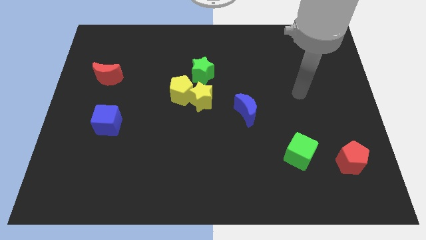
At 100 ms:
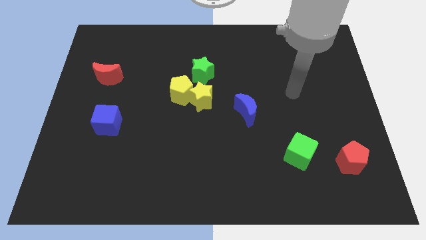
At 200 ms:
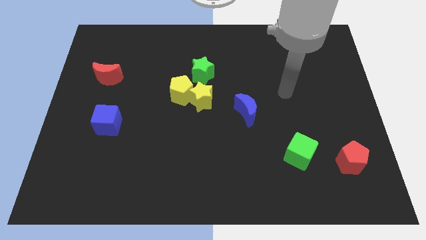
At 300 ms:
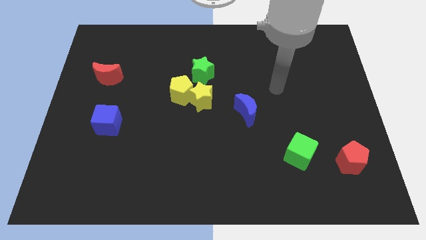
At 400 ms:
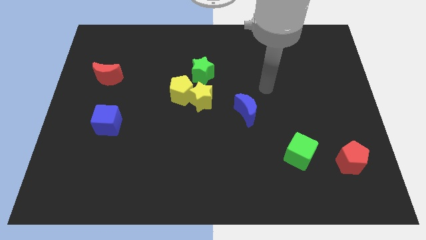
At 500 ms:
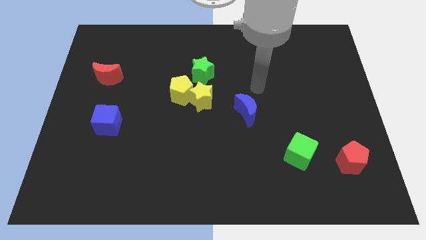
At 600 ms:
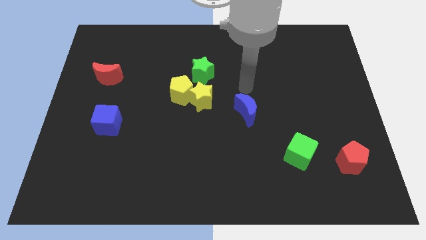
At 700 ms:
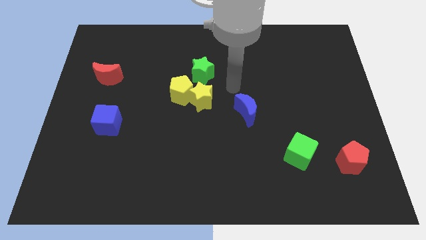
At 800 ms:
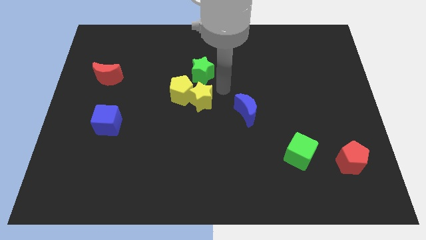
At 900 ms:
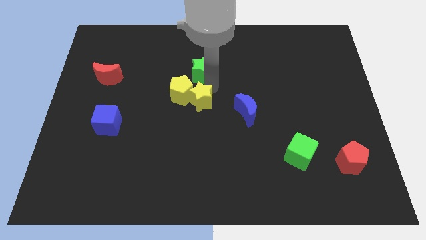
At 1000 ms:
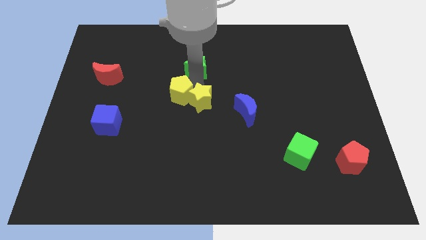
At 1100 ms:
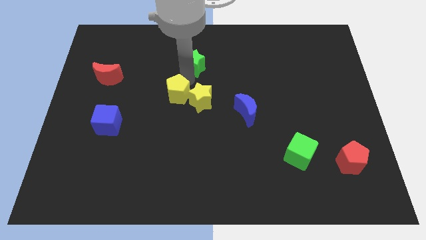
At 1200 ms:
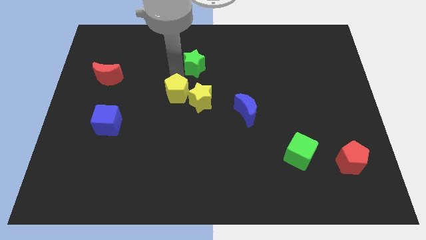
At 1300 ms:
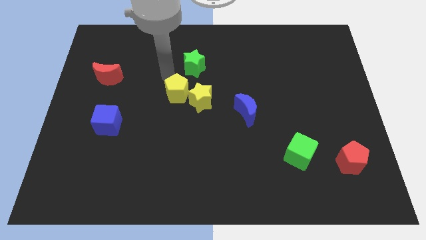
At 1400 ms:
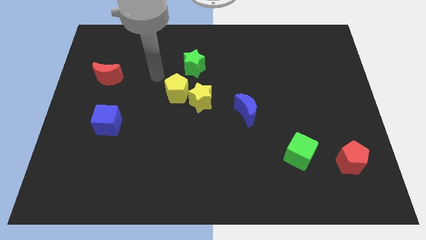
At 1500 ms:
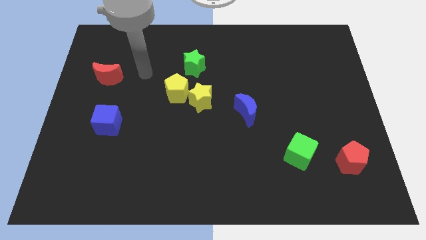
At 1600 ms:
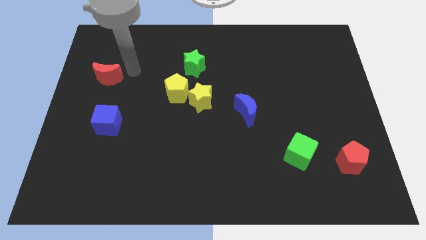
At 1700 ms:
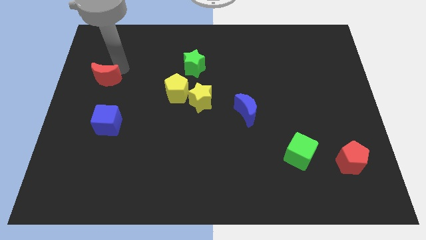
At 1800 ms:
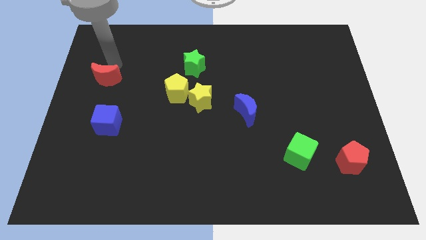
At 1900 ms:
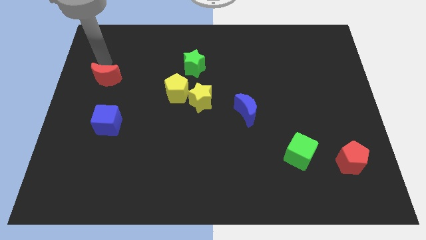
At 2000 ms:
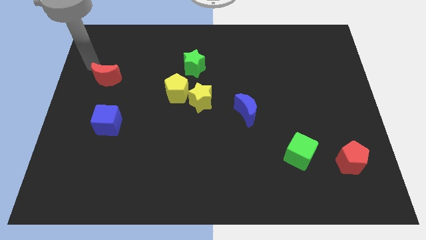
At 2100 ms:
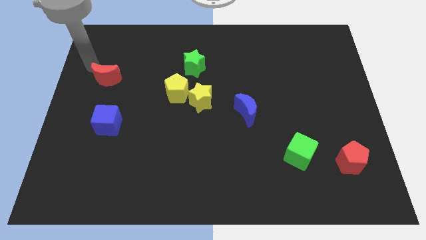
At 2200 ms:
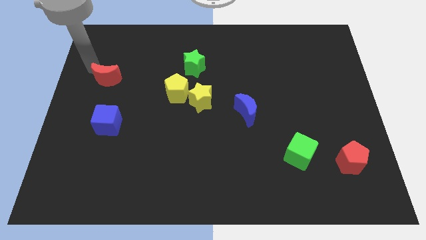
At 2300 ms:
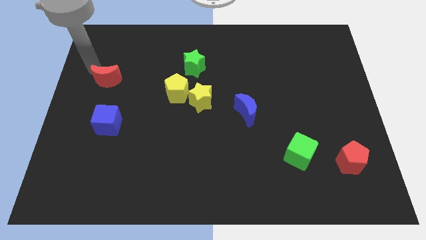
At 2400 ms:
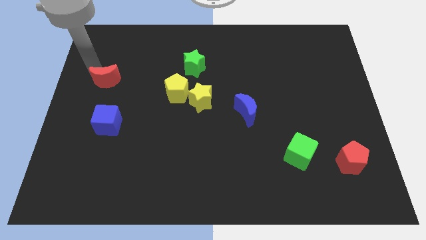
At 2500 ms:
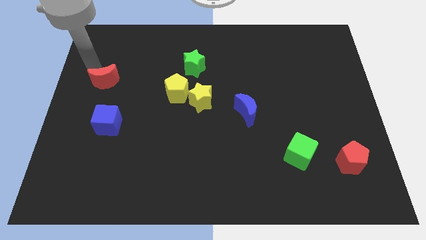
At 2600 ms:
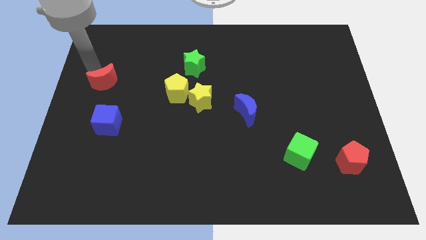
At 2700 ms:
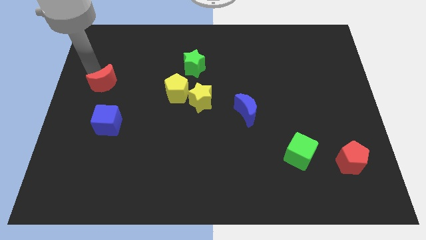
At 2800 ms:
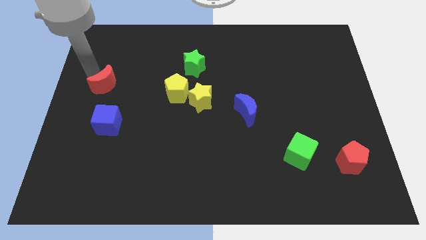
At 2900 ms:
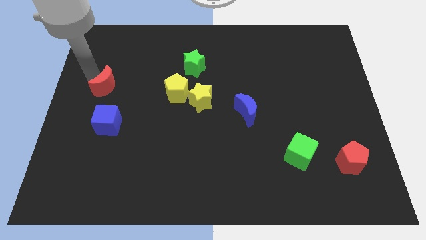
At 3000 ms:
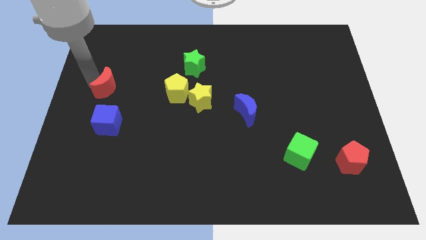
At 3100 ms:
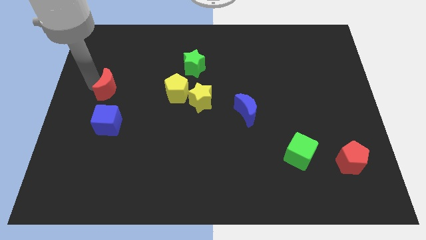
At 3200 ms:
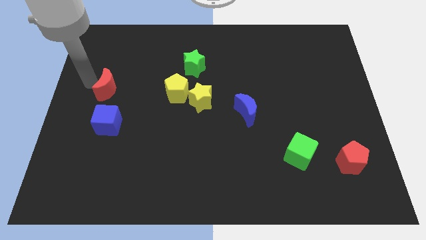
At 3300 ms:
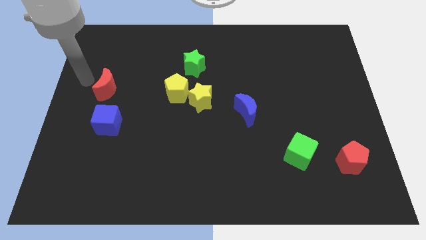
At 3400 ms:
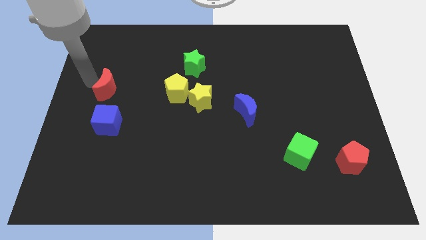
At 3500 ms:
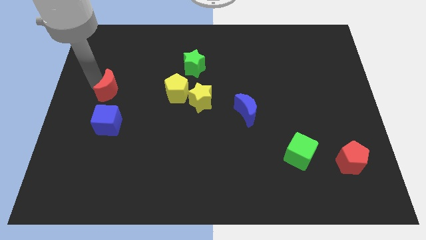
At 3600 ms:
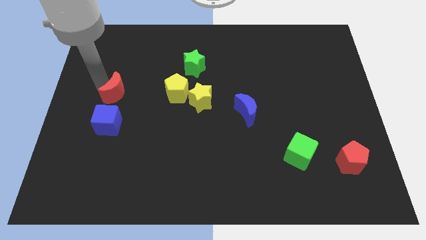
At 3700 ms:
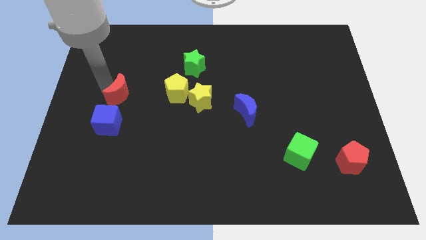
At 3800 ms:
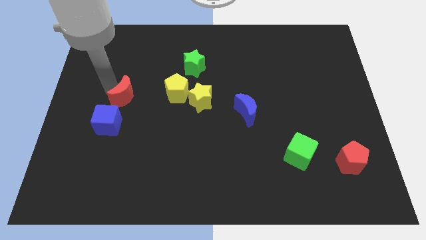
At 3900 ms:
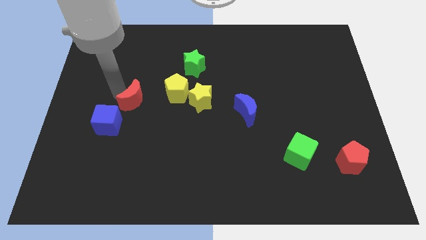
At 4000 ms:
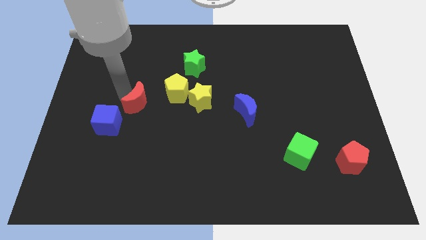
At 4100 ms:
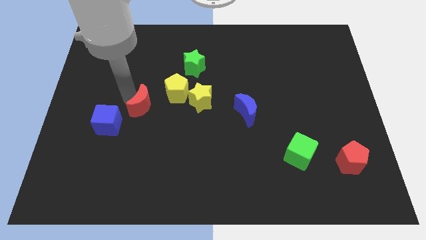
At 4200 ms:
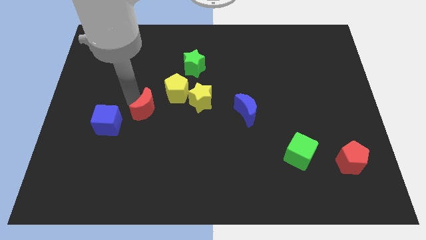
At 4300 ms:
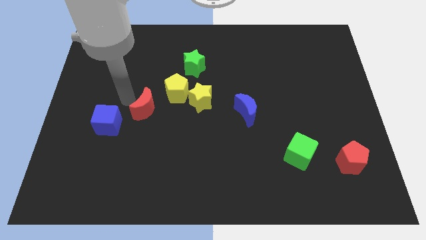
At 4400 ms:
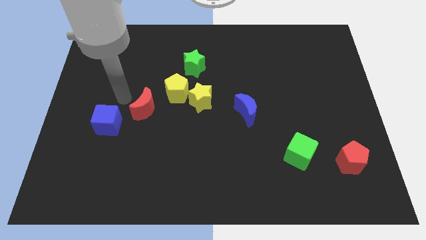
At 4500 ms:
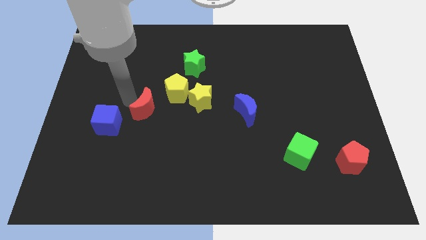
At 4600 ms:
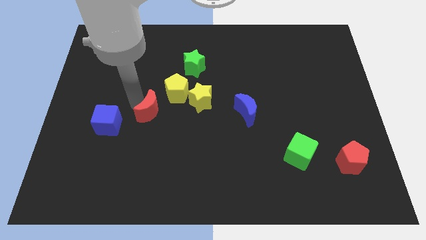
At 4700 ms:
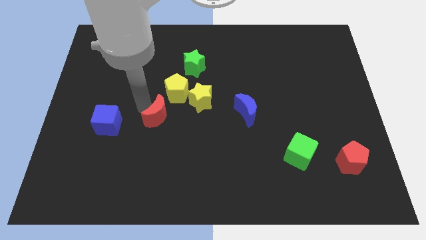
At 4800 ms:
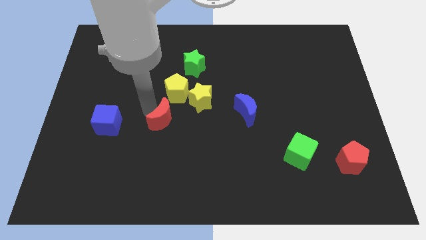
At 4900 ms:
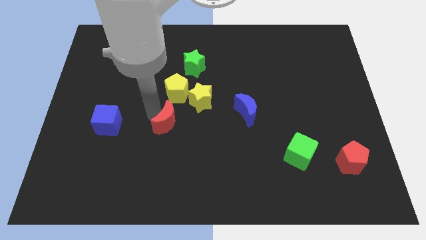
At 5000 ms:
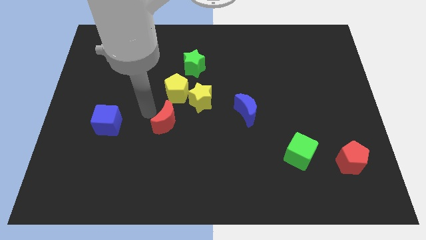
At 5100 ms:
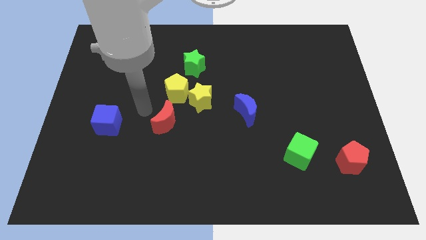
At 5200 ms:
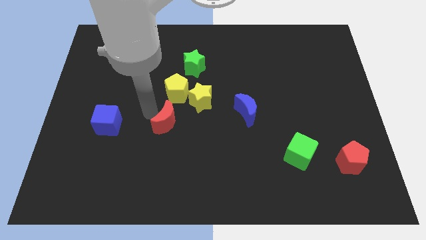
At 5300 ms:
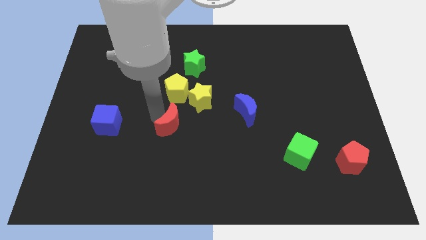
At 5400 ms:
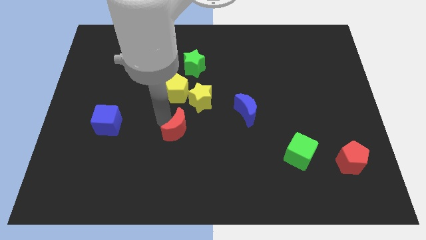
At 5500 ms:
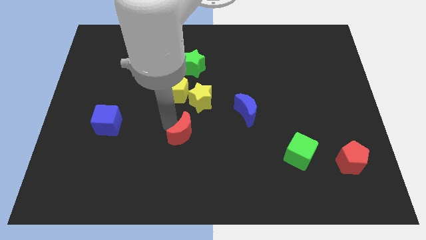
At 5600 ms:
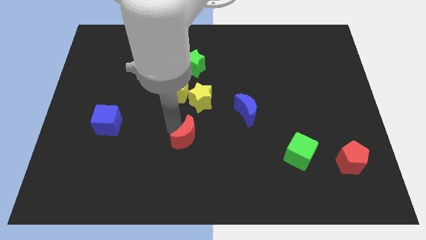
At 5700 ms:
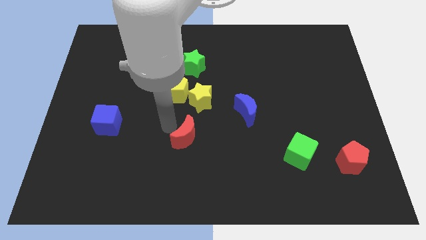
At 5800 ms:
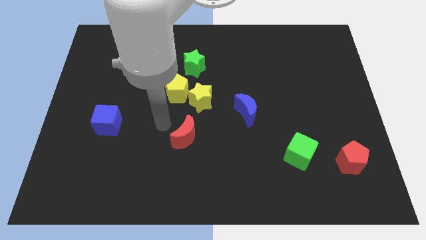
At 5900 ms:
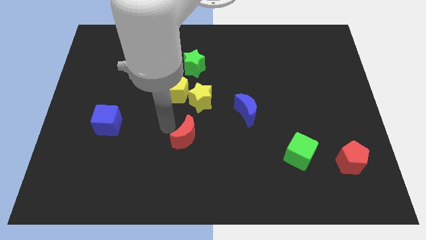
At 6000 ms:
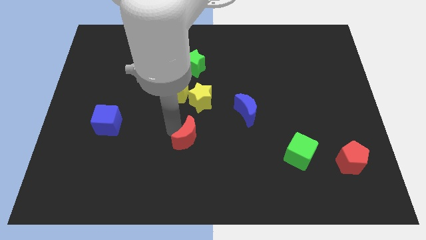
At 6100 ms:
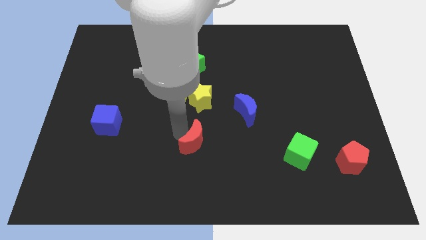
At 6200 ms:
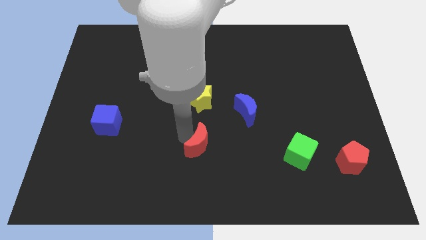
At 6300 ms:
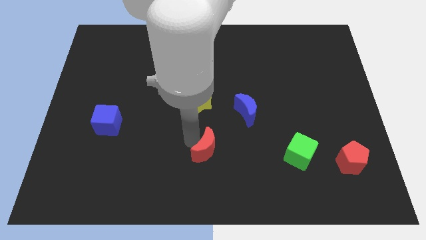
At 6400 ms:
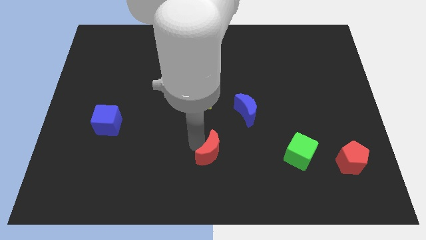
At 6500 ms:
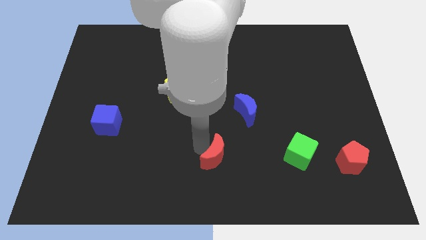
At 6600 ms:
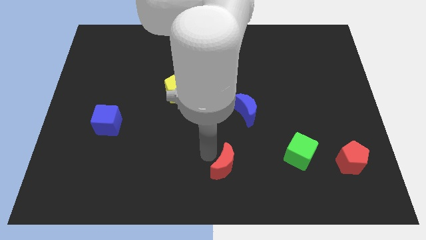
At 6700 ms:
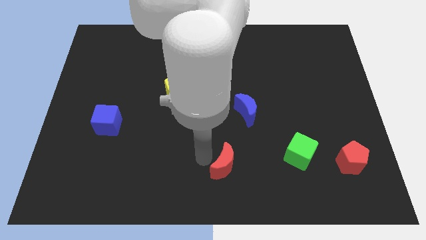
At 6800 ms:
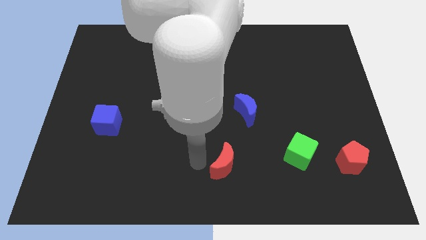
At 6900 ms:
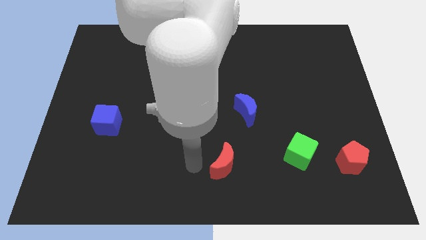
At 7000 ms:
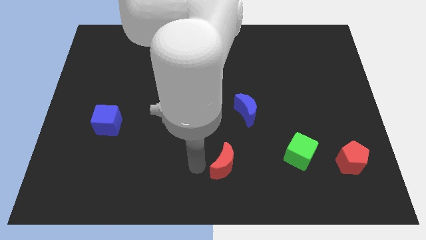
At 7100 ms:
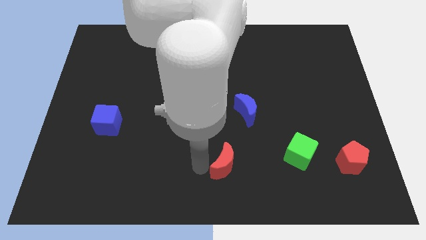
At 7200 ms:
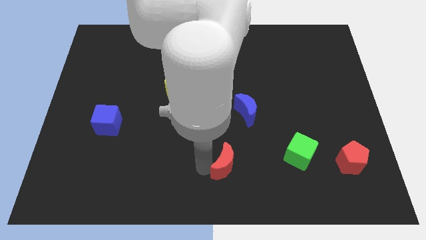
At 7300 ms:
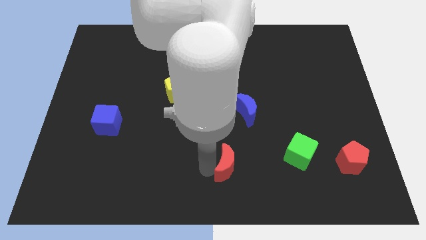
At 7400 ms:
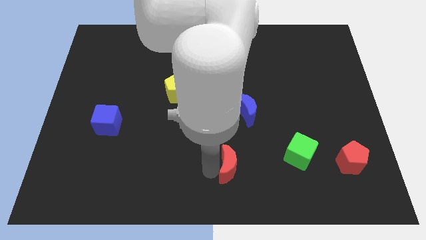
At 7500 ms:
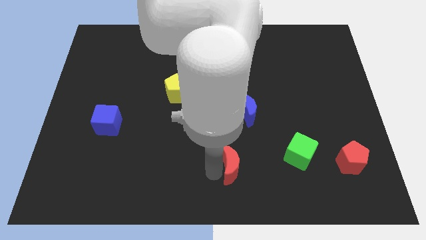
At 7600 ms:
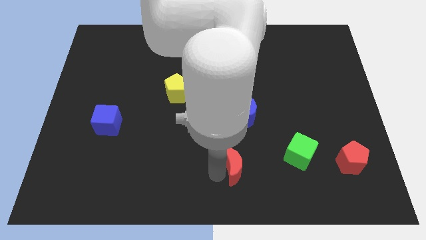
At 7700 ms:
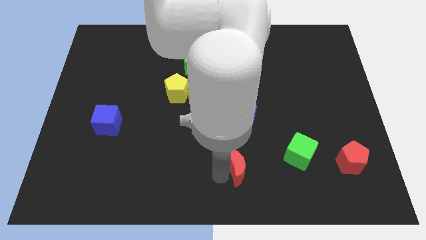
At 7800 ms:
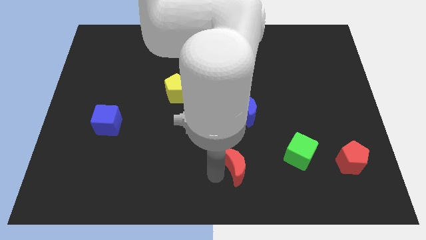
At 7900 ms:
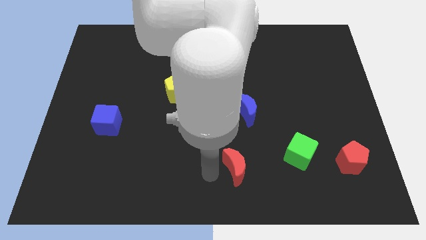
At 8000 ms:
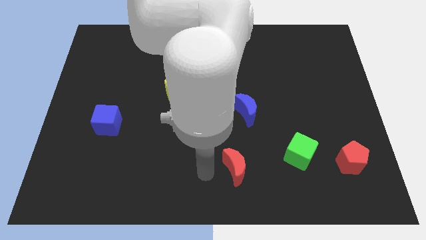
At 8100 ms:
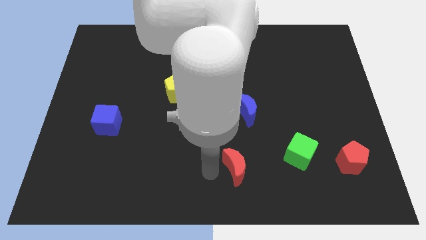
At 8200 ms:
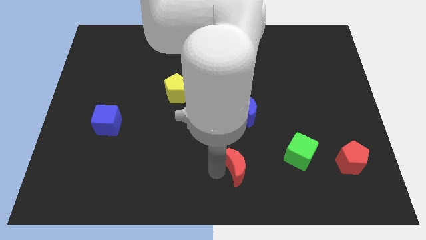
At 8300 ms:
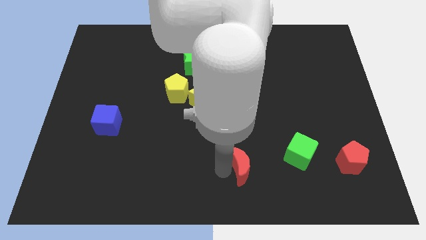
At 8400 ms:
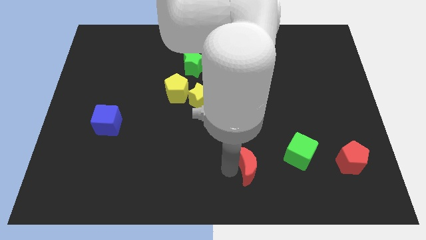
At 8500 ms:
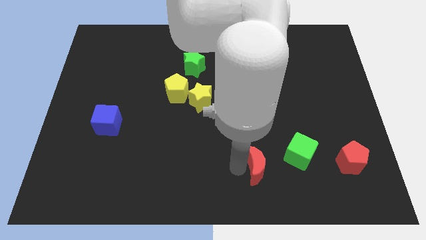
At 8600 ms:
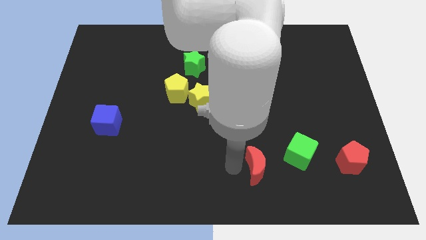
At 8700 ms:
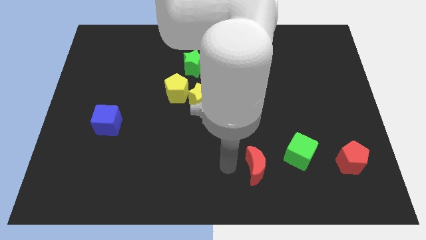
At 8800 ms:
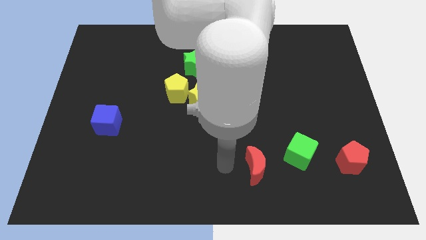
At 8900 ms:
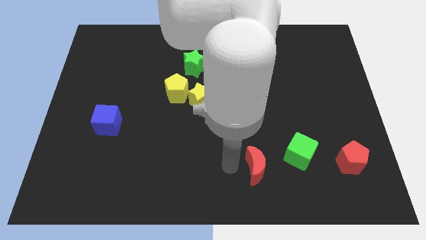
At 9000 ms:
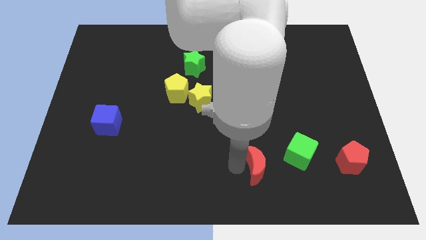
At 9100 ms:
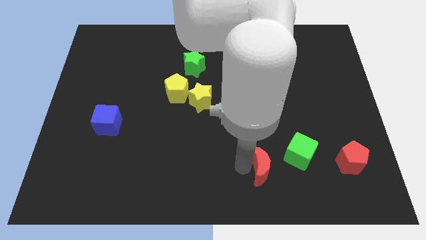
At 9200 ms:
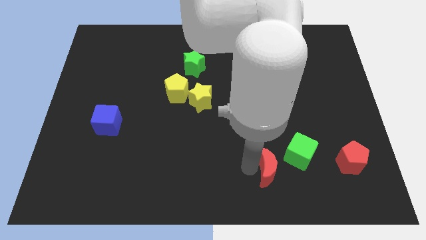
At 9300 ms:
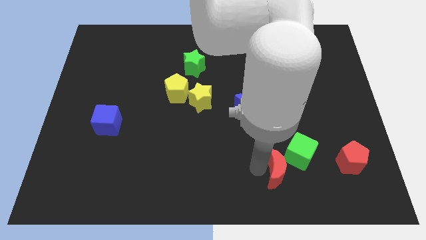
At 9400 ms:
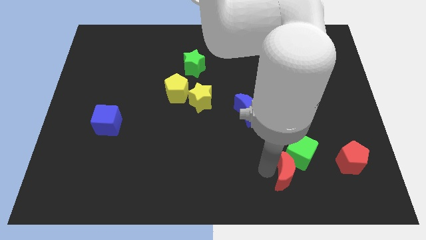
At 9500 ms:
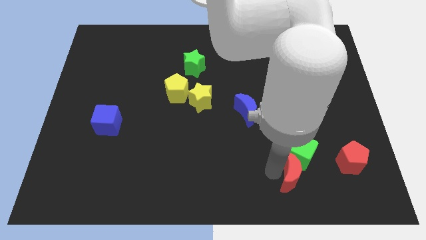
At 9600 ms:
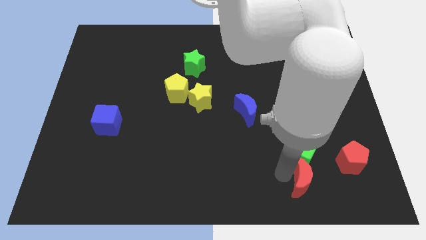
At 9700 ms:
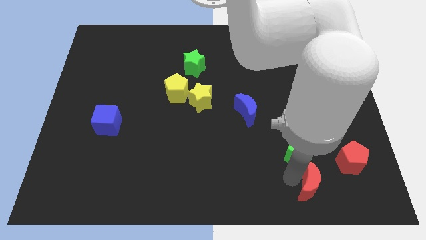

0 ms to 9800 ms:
slide the red moon to the bottom left side of the red pentagon
